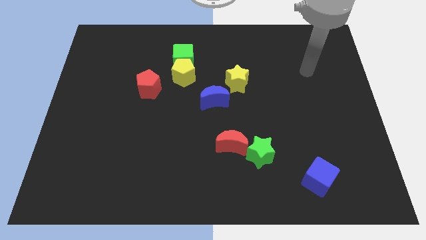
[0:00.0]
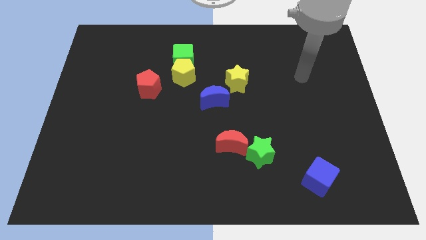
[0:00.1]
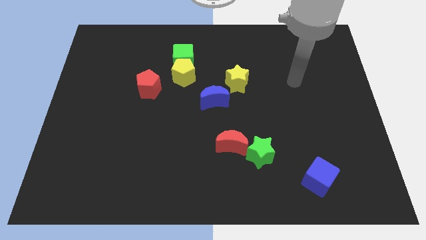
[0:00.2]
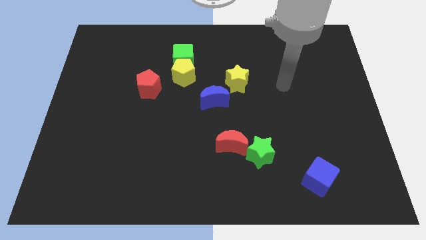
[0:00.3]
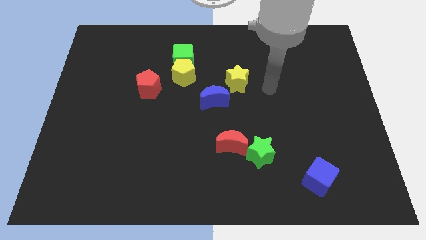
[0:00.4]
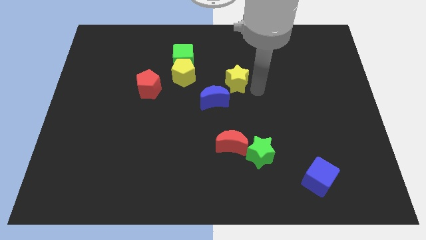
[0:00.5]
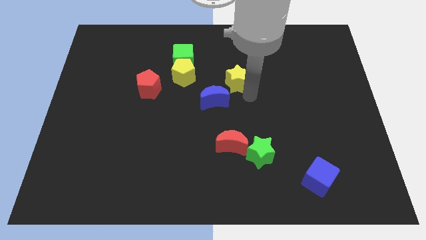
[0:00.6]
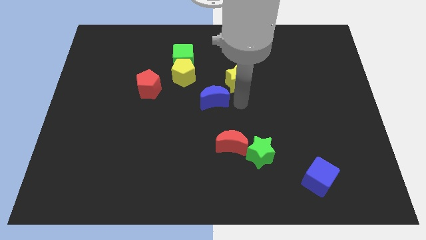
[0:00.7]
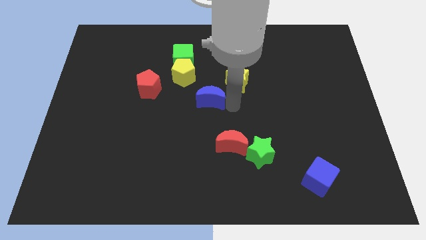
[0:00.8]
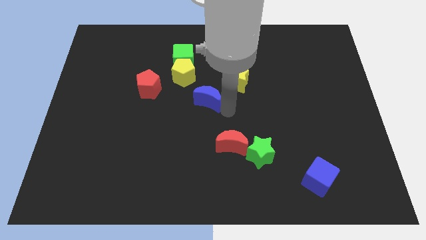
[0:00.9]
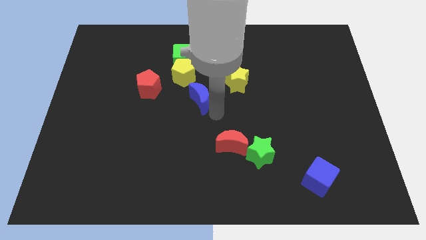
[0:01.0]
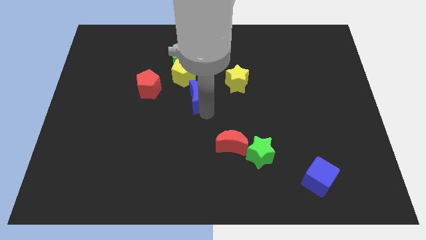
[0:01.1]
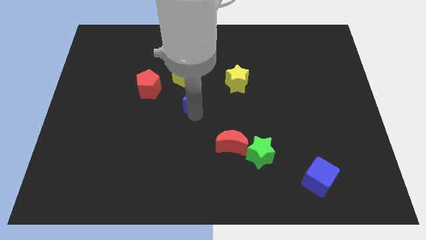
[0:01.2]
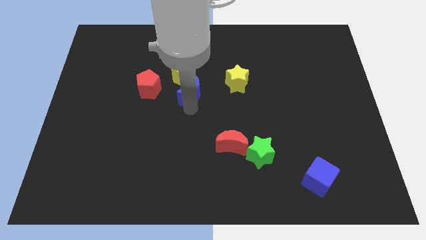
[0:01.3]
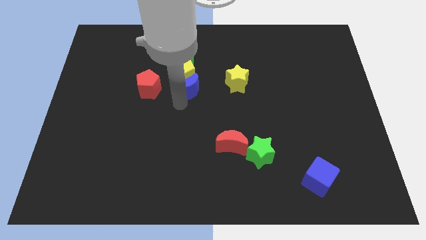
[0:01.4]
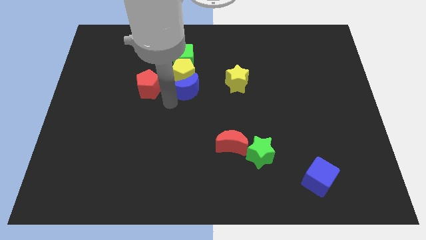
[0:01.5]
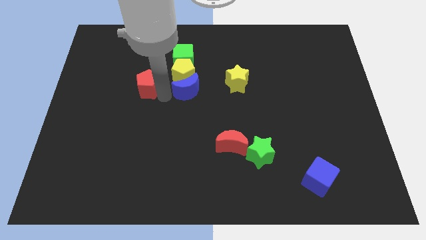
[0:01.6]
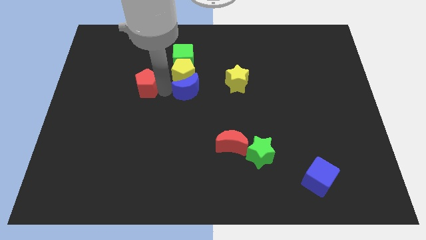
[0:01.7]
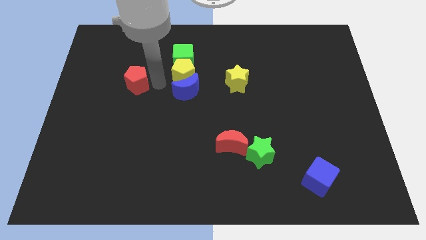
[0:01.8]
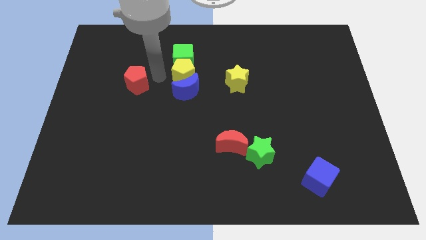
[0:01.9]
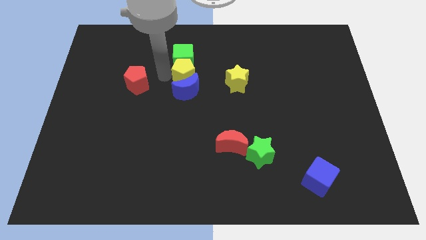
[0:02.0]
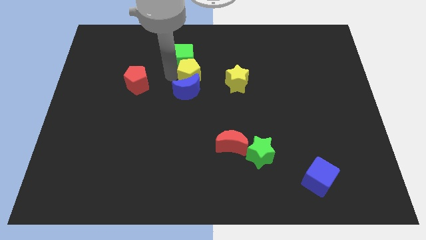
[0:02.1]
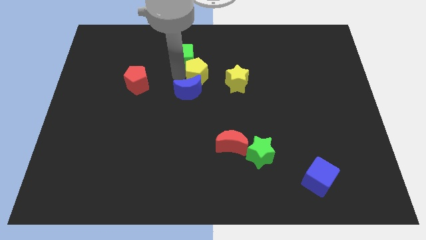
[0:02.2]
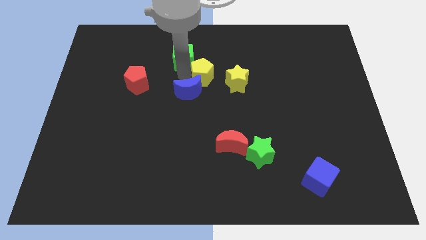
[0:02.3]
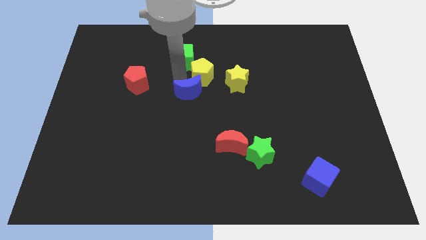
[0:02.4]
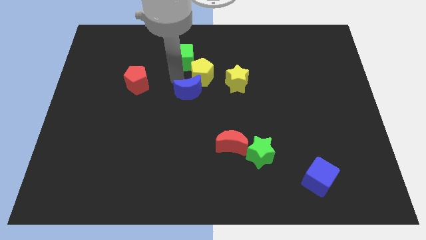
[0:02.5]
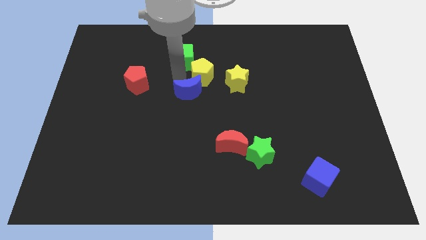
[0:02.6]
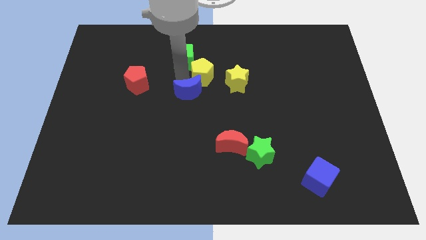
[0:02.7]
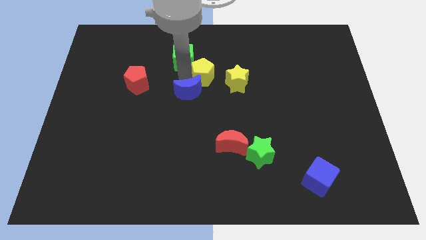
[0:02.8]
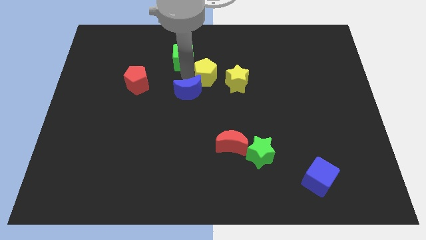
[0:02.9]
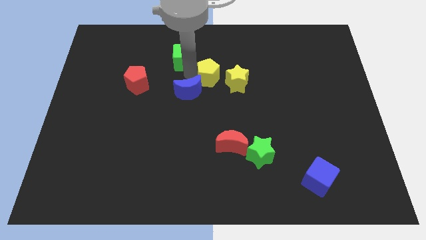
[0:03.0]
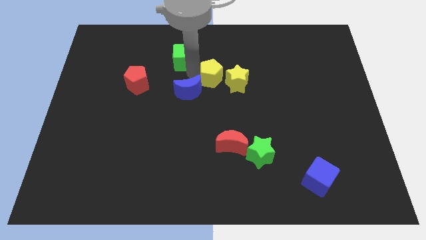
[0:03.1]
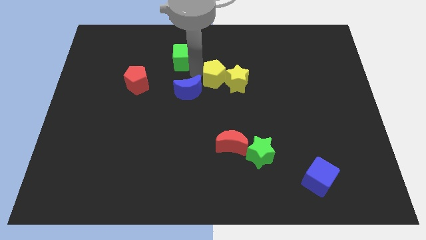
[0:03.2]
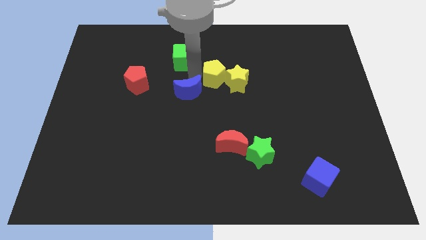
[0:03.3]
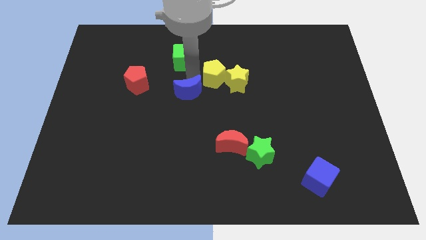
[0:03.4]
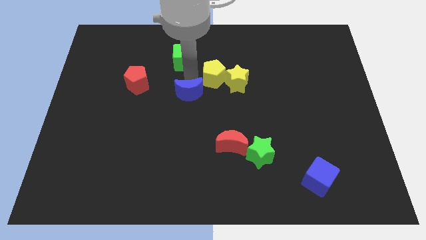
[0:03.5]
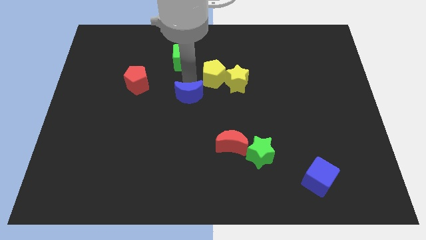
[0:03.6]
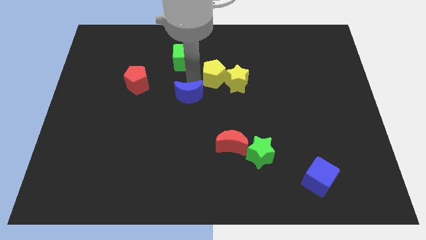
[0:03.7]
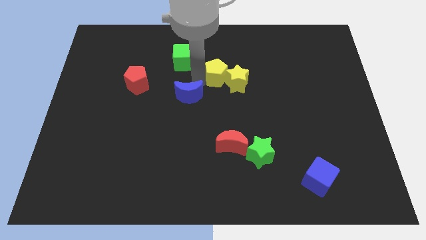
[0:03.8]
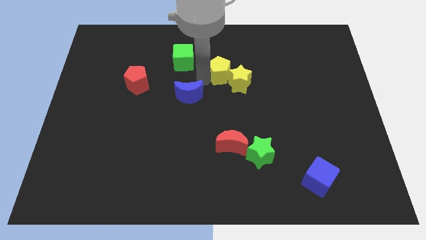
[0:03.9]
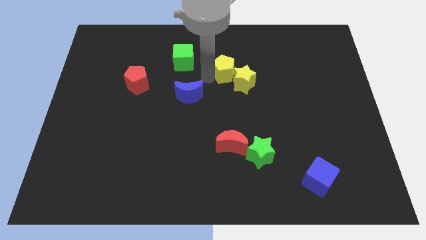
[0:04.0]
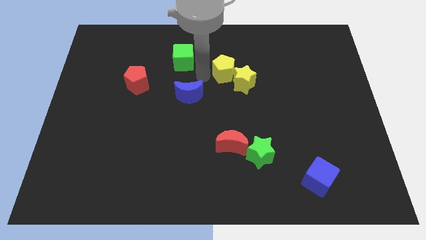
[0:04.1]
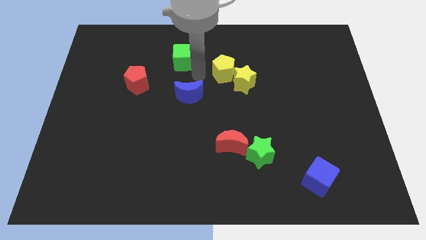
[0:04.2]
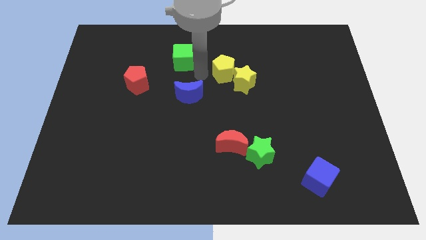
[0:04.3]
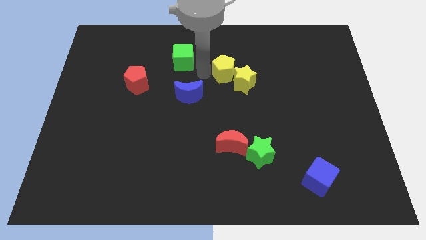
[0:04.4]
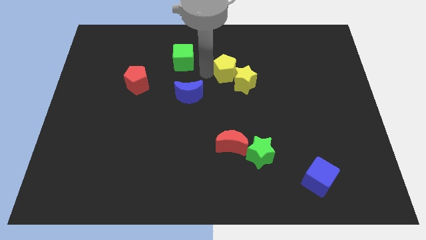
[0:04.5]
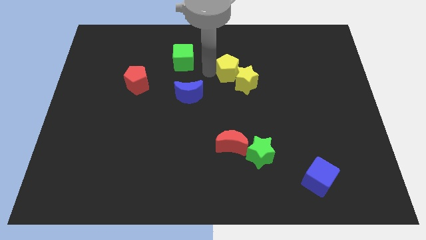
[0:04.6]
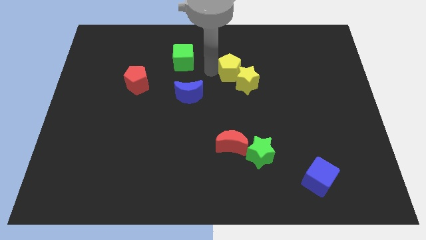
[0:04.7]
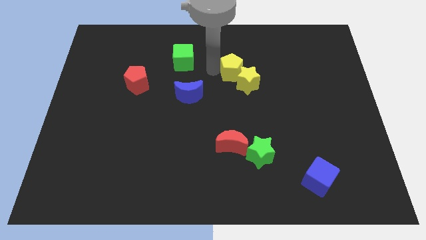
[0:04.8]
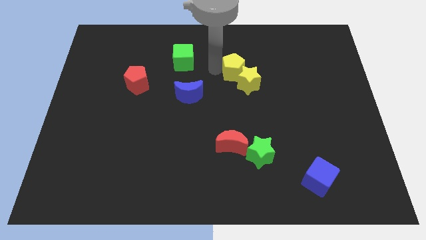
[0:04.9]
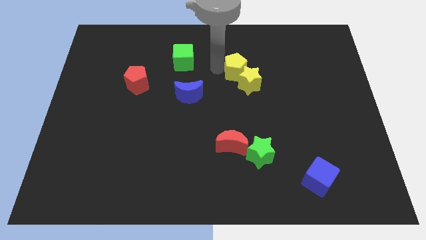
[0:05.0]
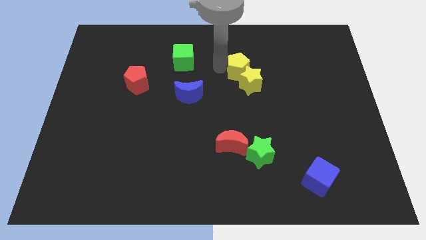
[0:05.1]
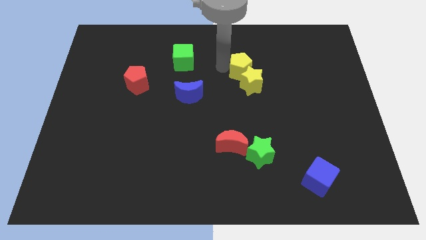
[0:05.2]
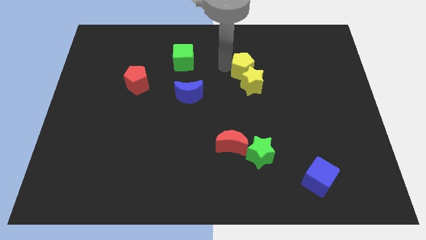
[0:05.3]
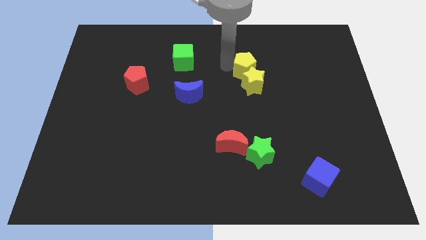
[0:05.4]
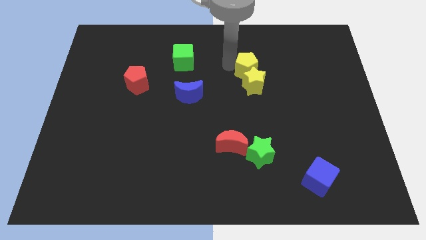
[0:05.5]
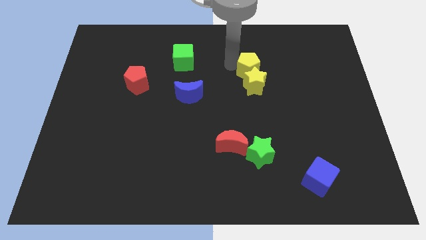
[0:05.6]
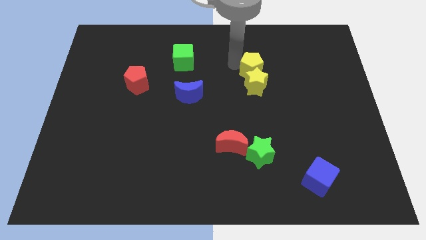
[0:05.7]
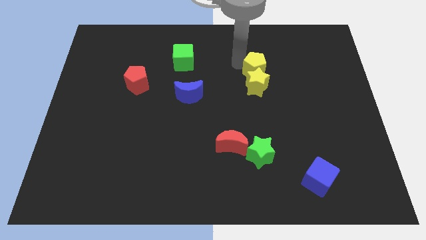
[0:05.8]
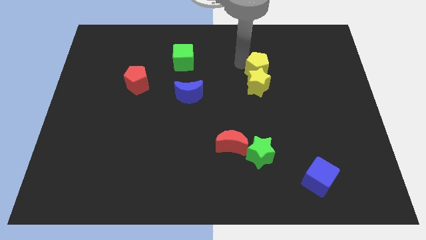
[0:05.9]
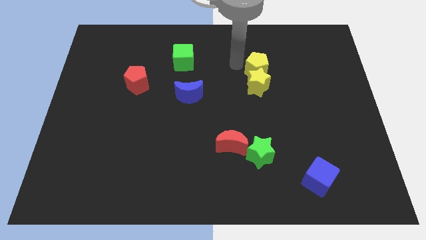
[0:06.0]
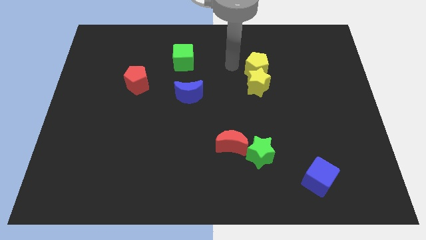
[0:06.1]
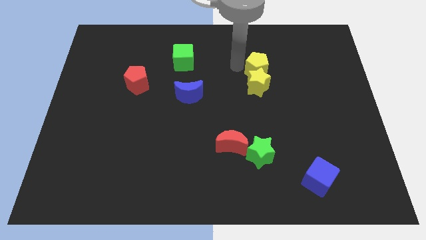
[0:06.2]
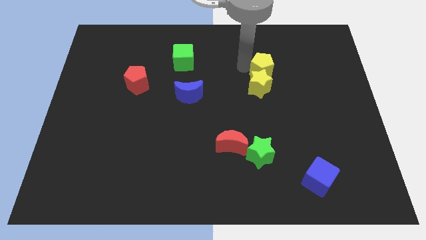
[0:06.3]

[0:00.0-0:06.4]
move the yellow pentagon right

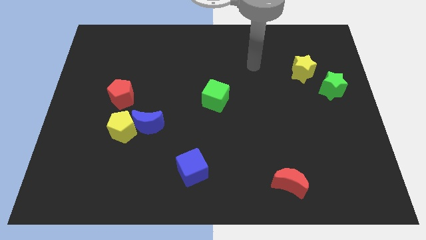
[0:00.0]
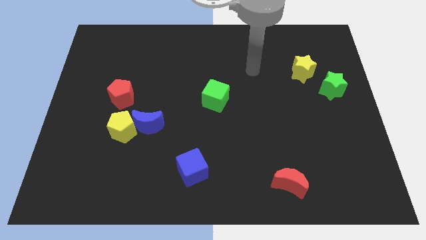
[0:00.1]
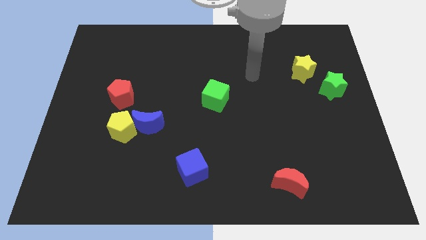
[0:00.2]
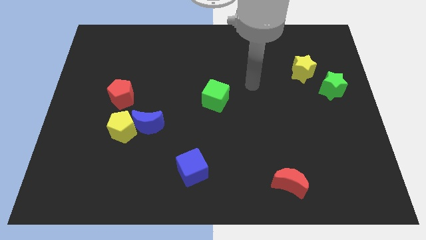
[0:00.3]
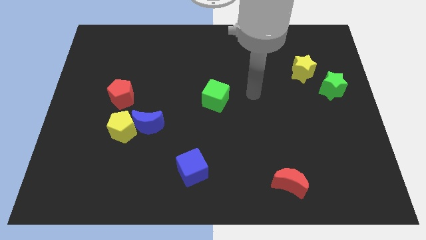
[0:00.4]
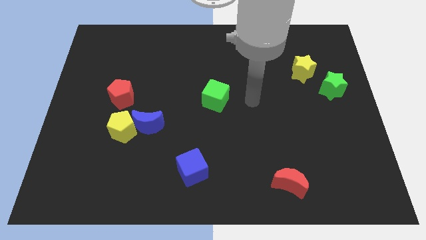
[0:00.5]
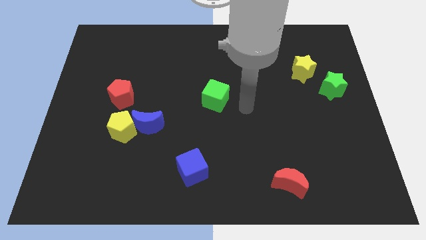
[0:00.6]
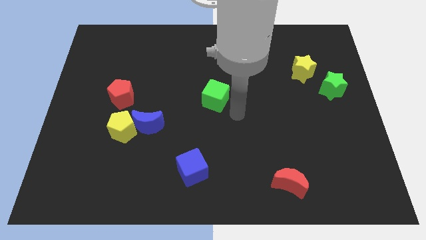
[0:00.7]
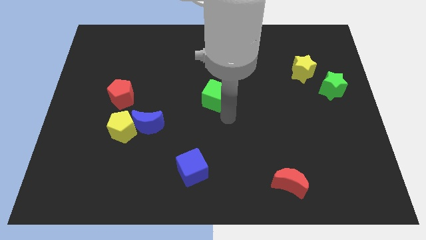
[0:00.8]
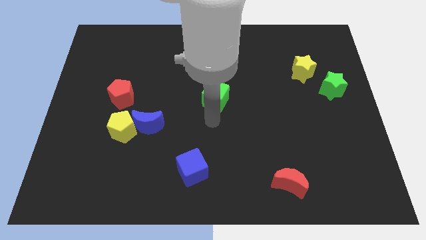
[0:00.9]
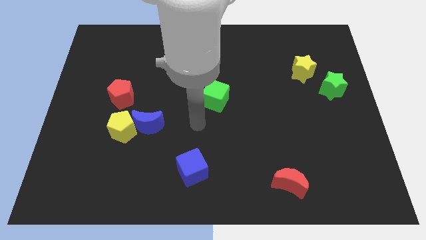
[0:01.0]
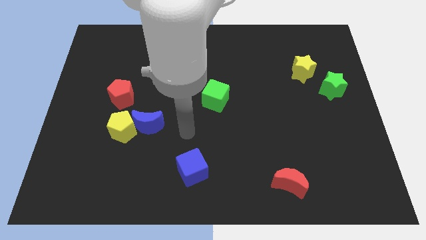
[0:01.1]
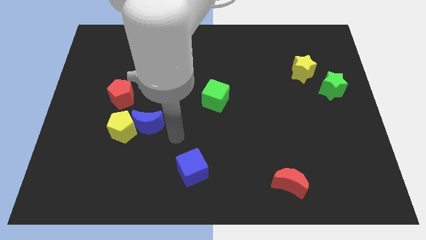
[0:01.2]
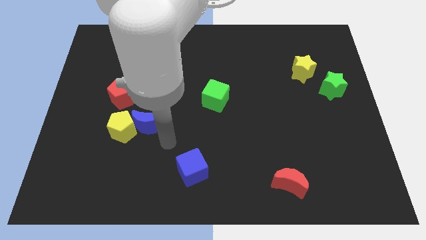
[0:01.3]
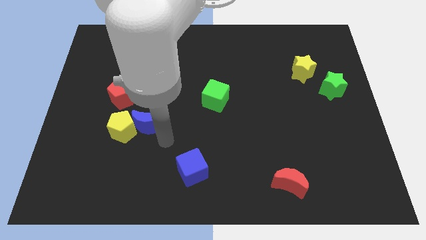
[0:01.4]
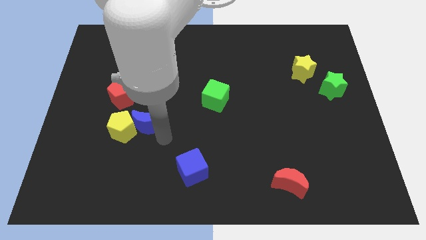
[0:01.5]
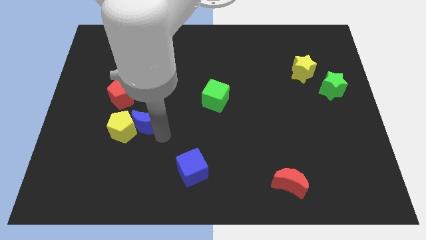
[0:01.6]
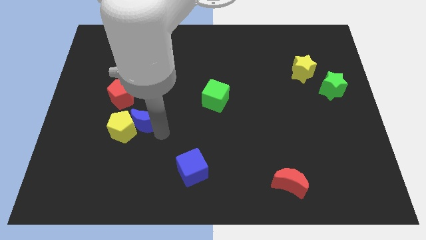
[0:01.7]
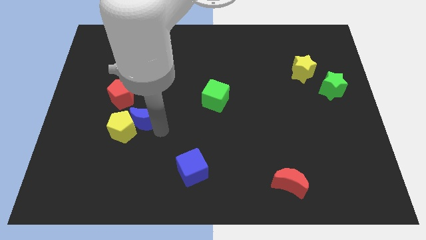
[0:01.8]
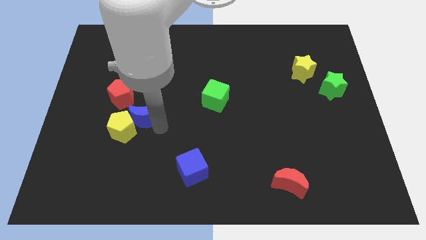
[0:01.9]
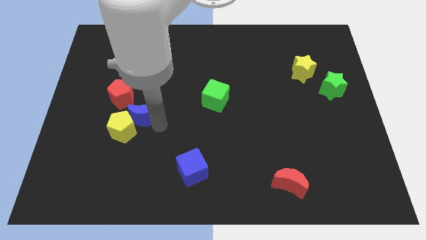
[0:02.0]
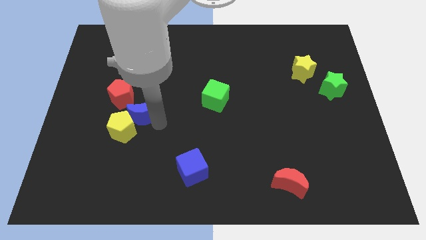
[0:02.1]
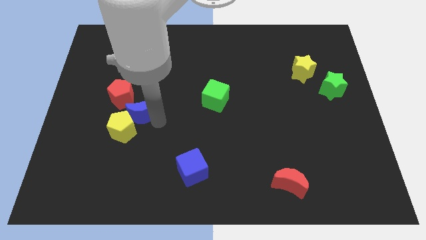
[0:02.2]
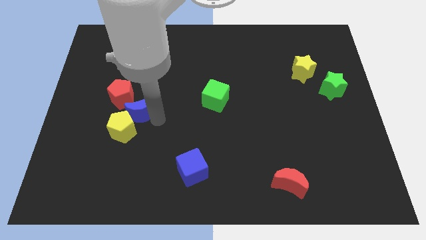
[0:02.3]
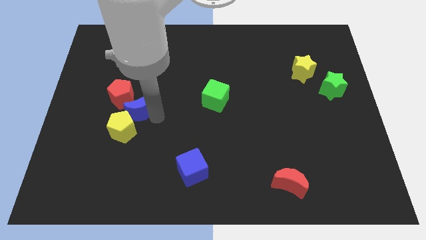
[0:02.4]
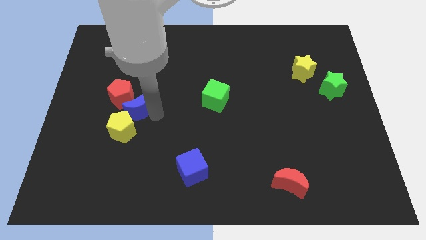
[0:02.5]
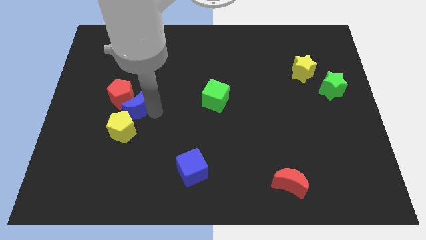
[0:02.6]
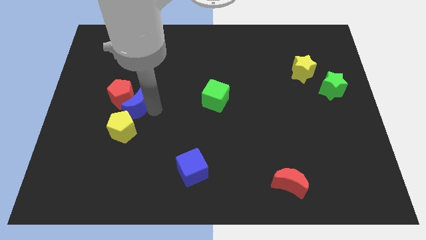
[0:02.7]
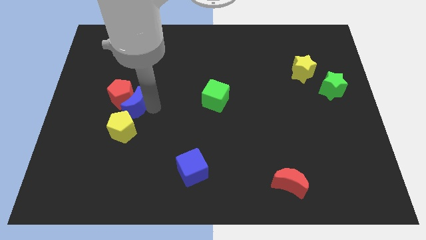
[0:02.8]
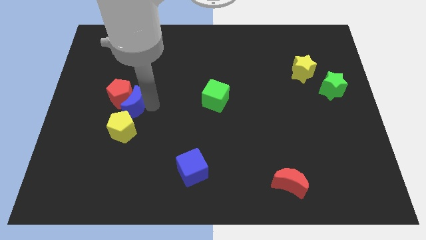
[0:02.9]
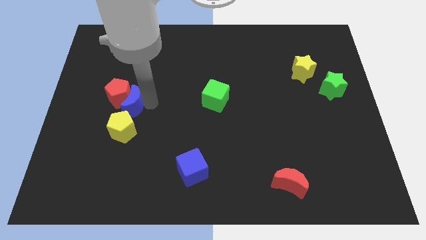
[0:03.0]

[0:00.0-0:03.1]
slightly push the blue moon diagonally up and to the left
